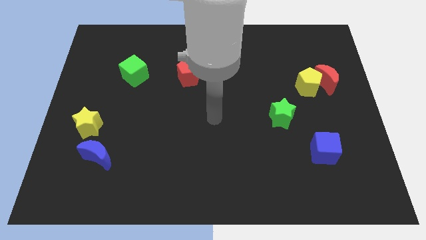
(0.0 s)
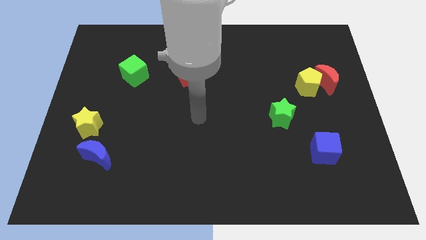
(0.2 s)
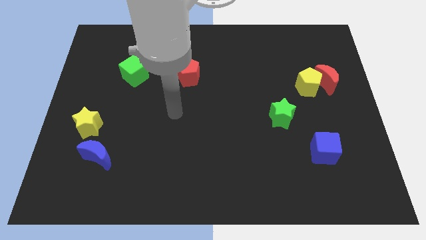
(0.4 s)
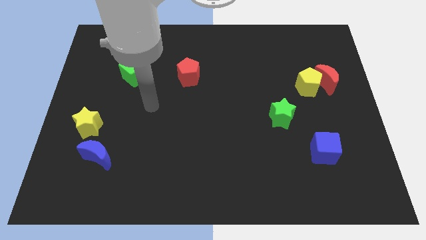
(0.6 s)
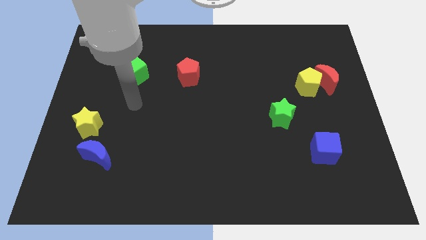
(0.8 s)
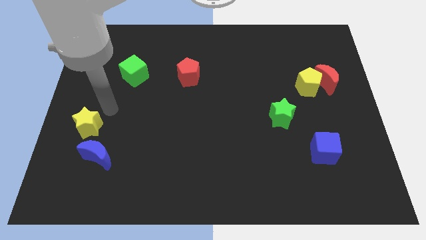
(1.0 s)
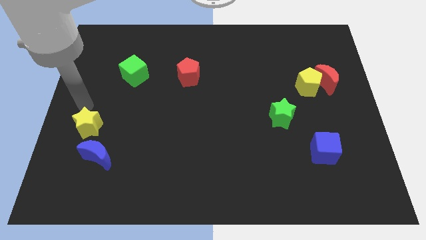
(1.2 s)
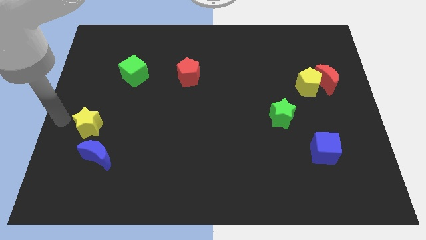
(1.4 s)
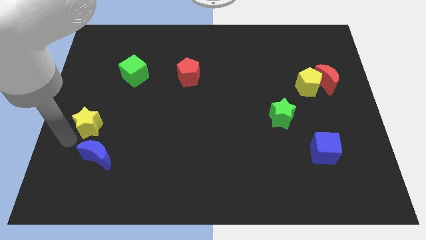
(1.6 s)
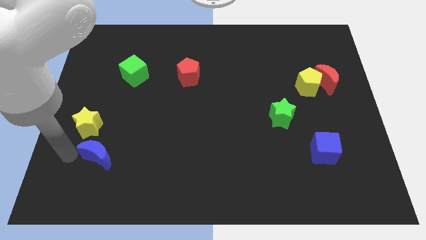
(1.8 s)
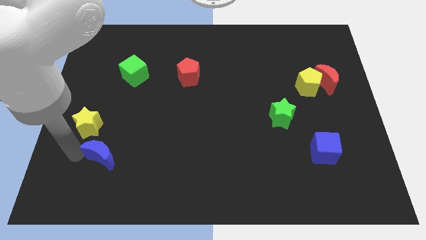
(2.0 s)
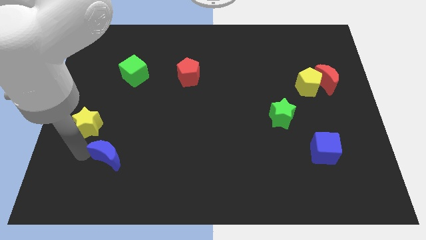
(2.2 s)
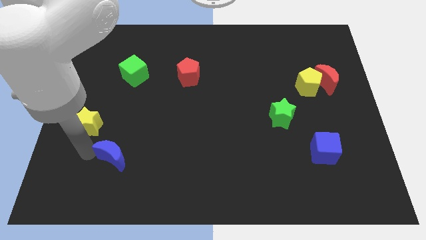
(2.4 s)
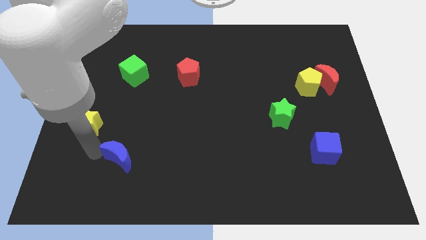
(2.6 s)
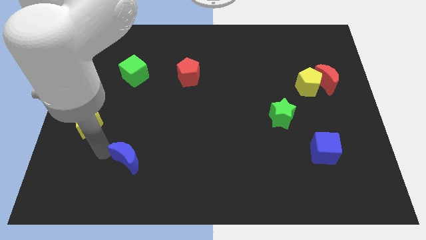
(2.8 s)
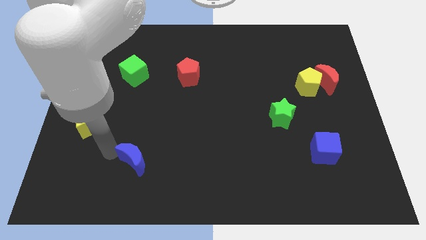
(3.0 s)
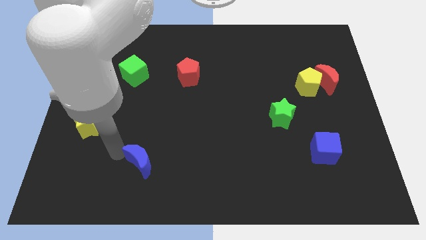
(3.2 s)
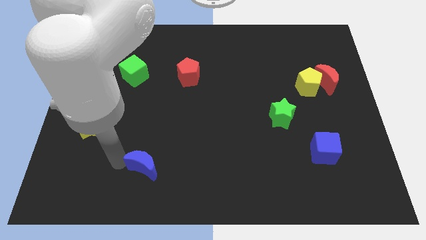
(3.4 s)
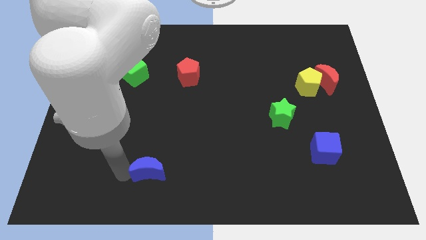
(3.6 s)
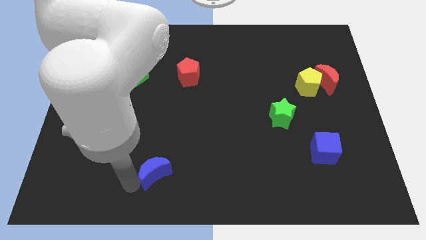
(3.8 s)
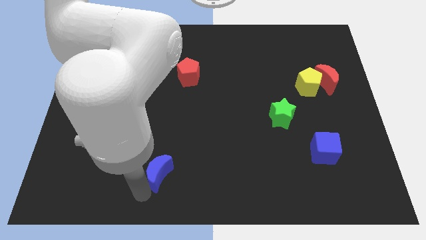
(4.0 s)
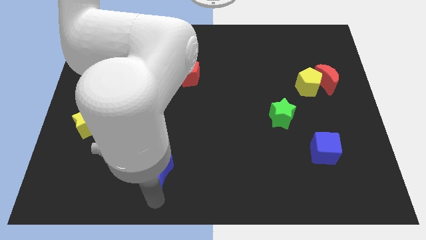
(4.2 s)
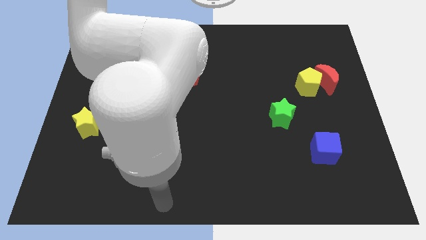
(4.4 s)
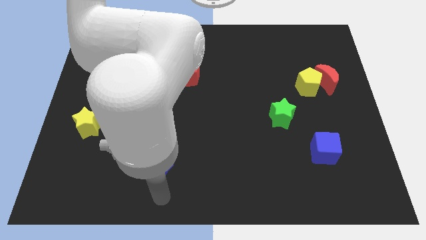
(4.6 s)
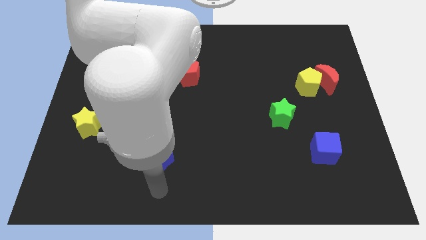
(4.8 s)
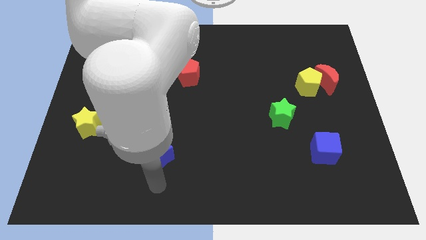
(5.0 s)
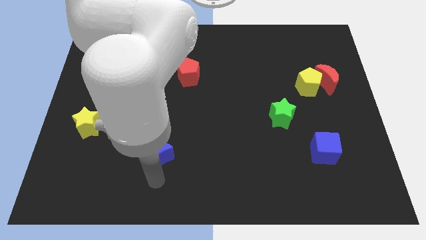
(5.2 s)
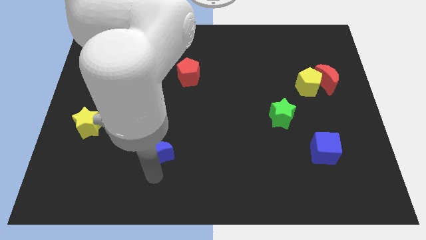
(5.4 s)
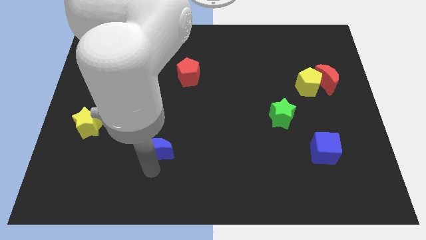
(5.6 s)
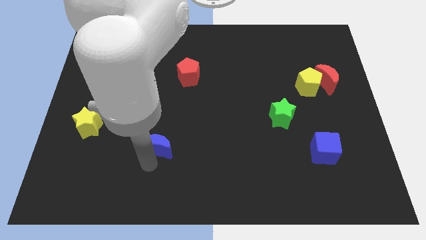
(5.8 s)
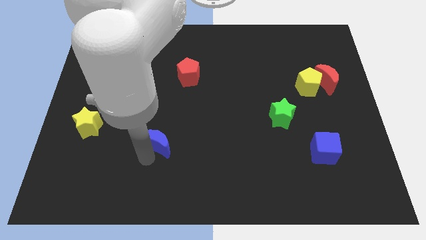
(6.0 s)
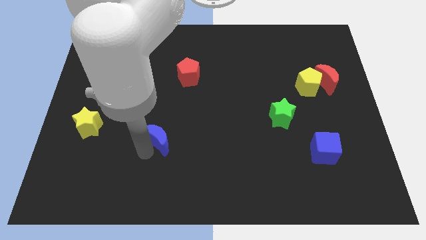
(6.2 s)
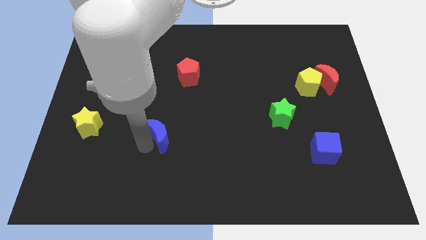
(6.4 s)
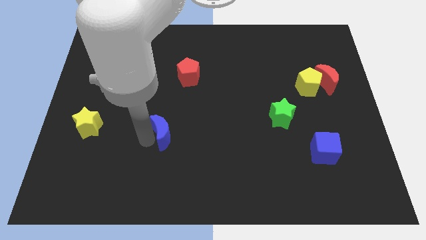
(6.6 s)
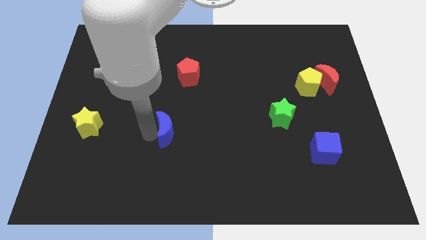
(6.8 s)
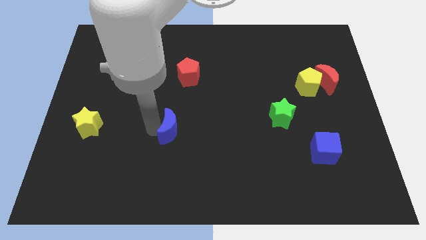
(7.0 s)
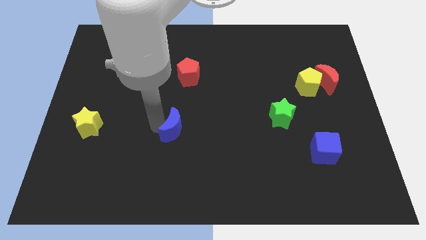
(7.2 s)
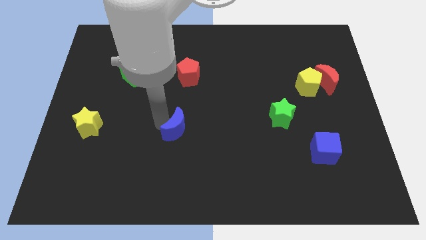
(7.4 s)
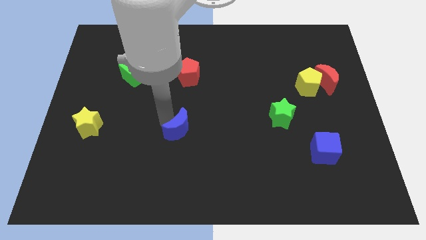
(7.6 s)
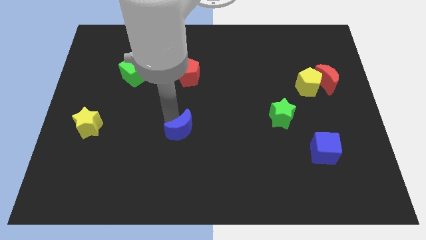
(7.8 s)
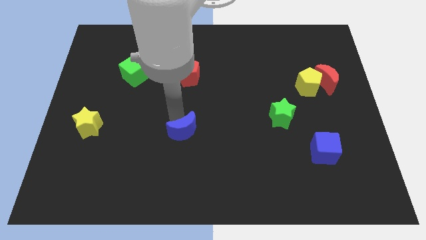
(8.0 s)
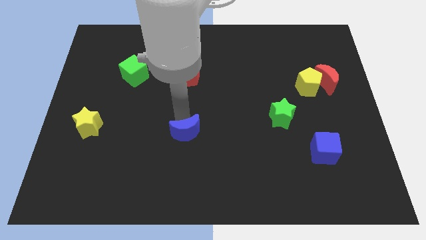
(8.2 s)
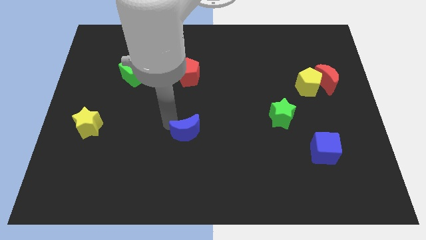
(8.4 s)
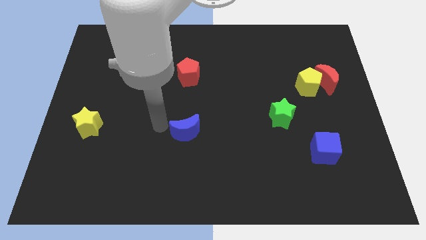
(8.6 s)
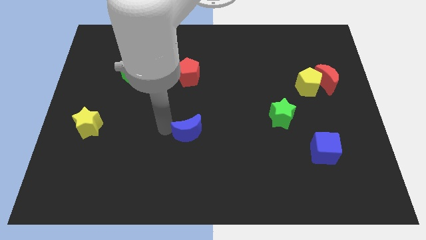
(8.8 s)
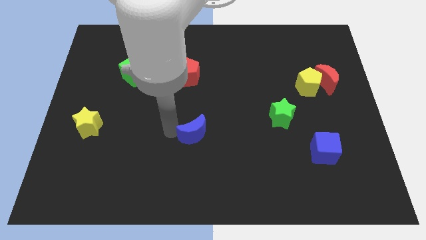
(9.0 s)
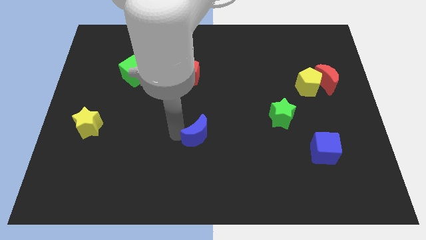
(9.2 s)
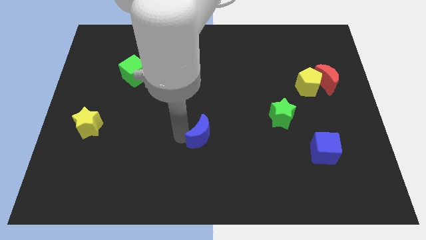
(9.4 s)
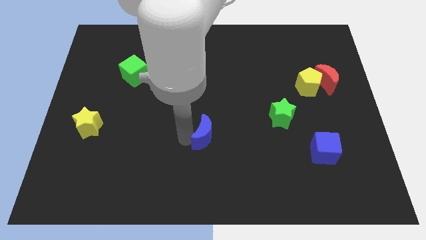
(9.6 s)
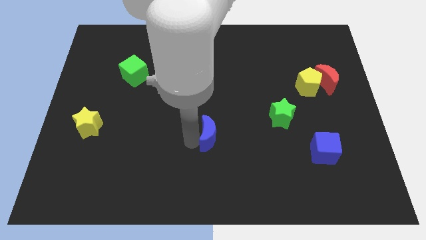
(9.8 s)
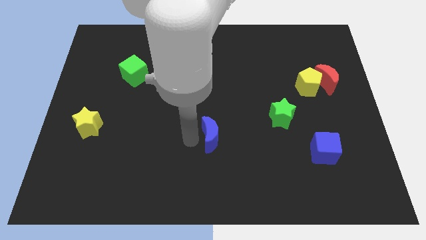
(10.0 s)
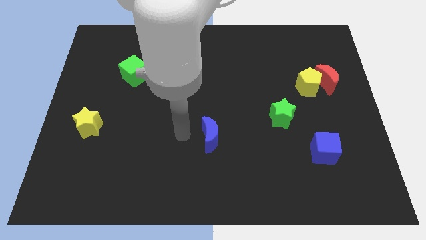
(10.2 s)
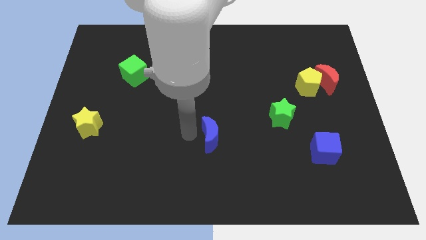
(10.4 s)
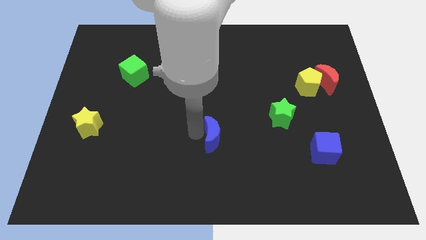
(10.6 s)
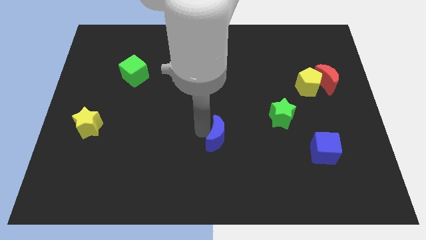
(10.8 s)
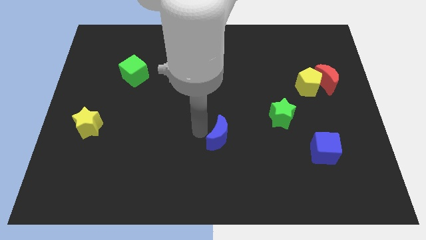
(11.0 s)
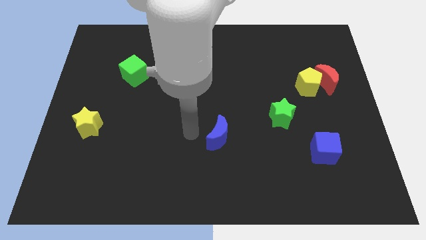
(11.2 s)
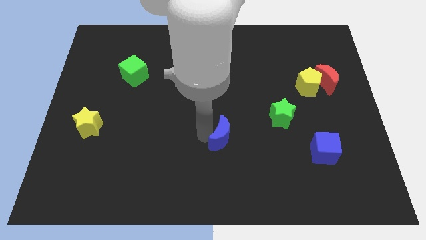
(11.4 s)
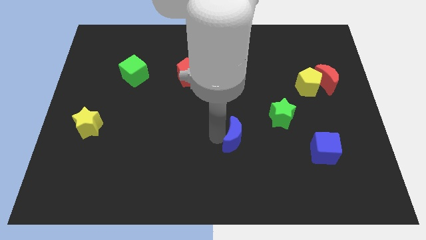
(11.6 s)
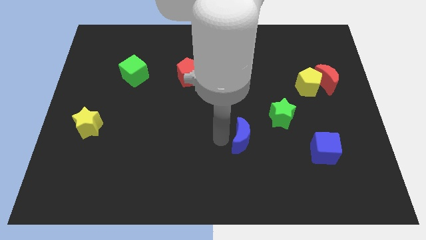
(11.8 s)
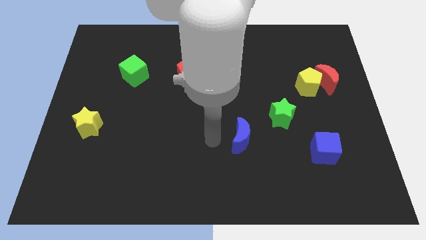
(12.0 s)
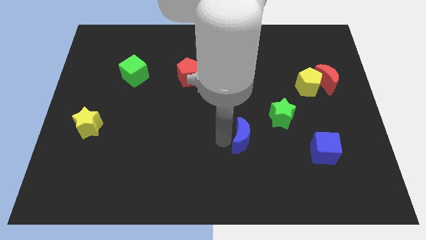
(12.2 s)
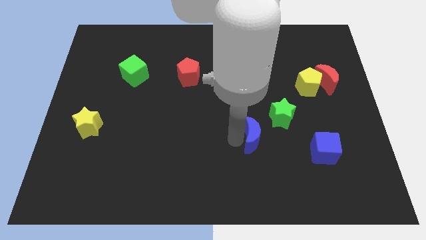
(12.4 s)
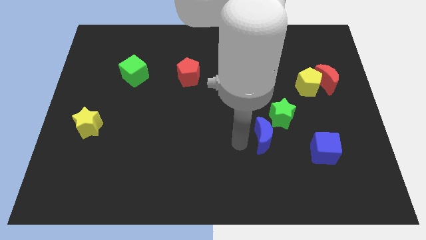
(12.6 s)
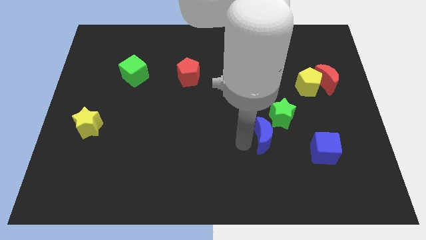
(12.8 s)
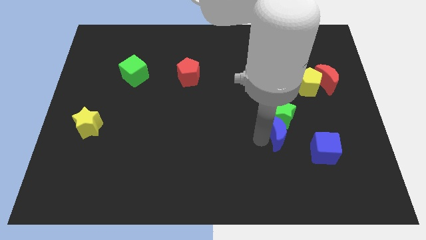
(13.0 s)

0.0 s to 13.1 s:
put the blue moon diagonally up and to the left of the blue cube

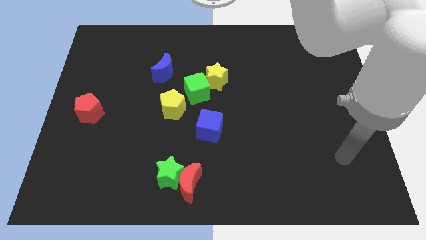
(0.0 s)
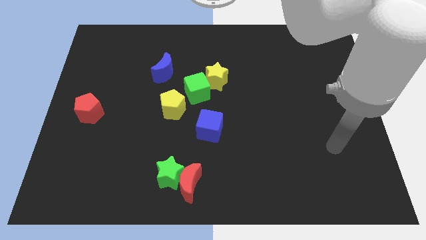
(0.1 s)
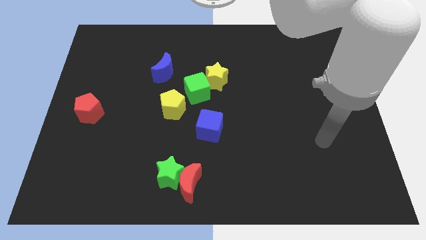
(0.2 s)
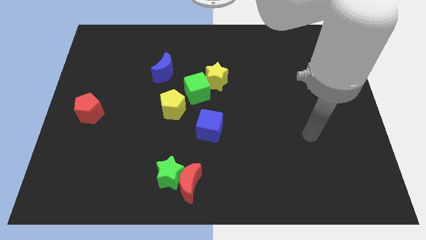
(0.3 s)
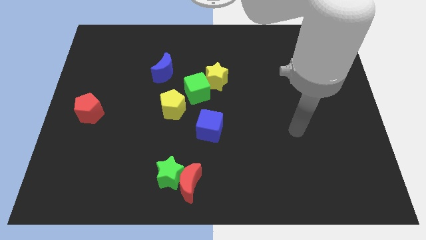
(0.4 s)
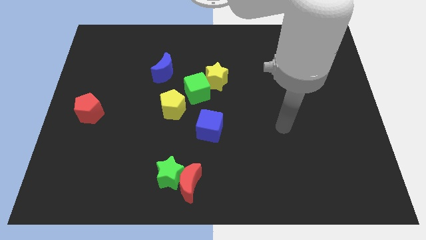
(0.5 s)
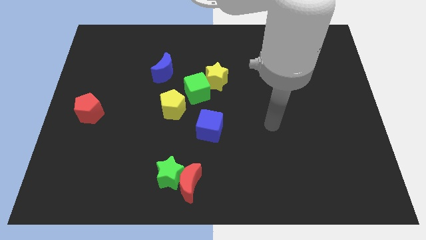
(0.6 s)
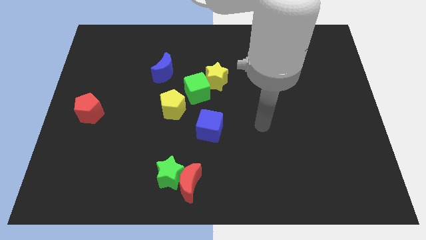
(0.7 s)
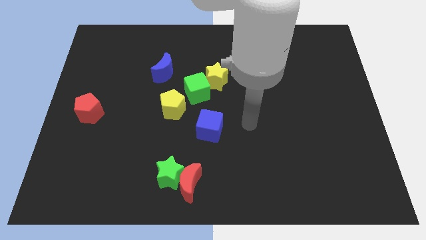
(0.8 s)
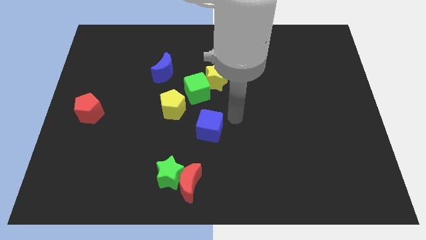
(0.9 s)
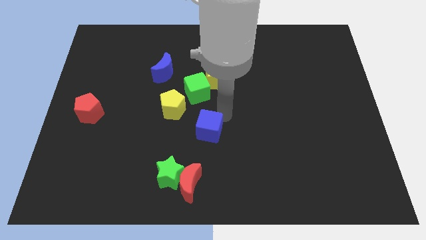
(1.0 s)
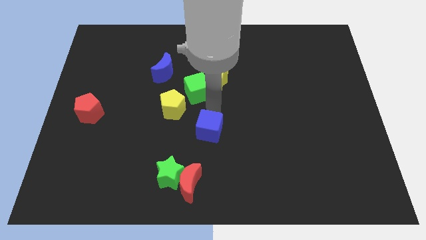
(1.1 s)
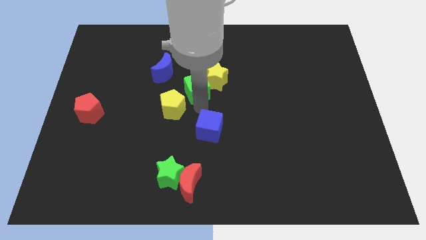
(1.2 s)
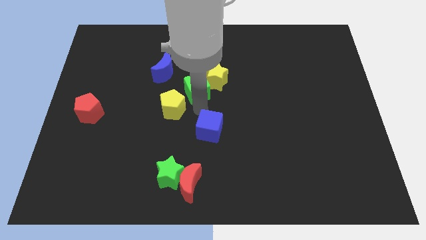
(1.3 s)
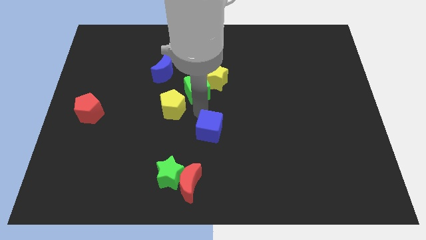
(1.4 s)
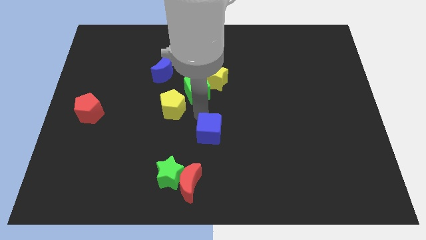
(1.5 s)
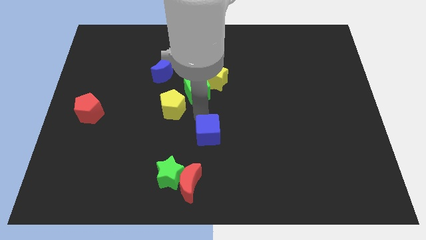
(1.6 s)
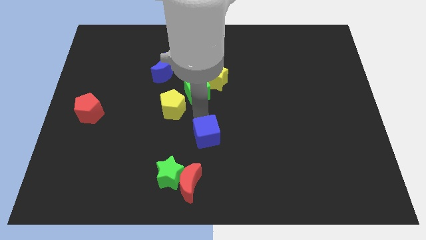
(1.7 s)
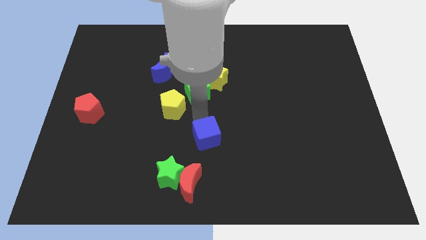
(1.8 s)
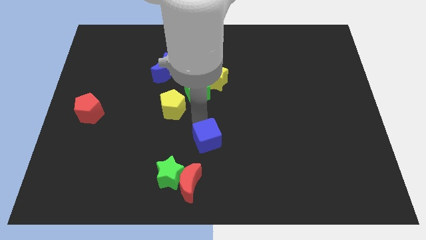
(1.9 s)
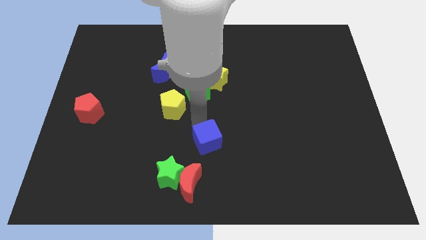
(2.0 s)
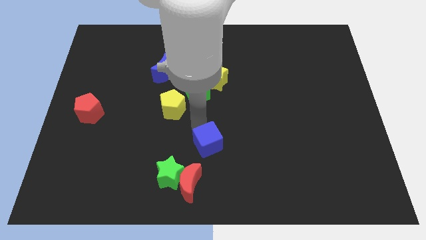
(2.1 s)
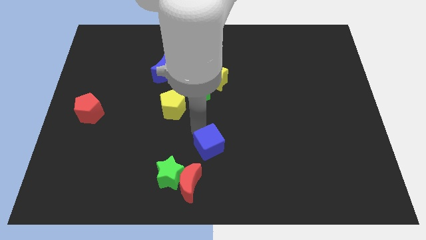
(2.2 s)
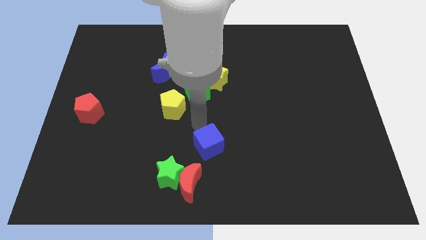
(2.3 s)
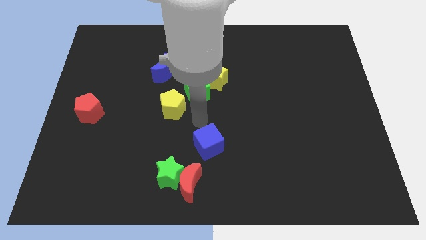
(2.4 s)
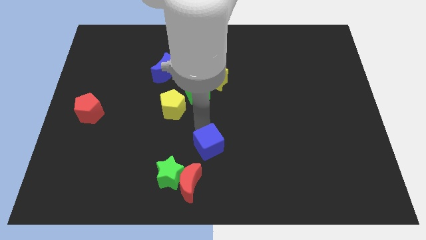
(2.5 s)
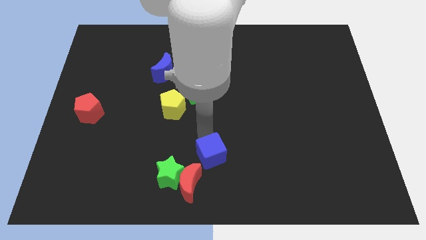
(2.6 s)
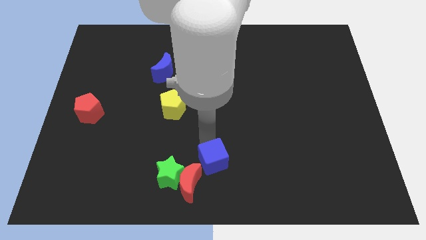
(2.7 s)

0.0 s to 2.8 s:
move the blue cube right of the green star
